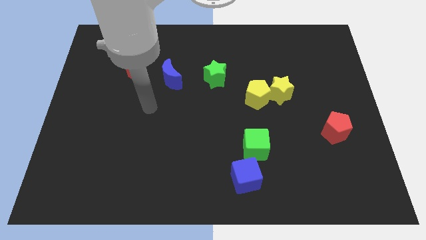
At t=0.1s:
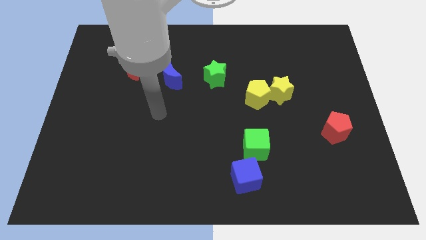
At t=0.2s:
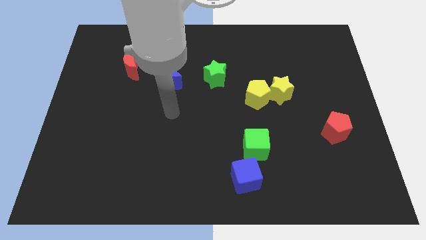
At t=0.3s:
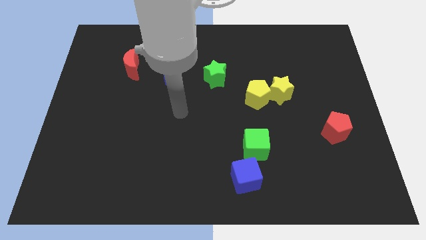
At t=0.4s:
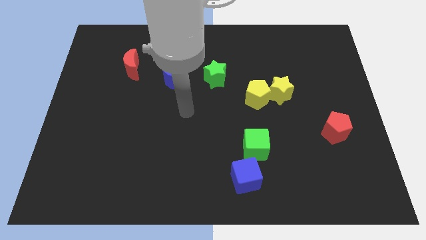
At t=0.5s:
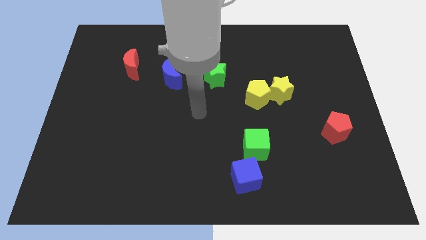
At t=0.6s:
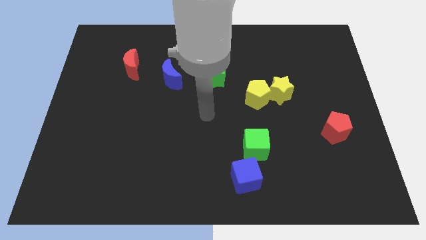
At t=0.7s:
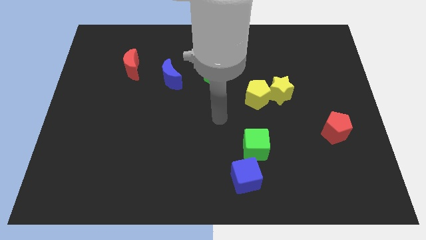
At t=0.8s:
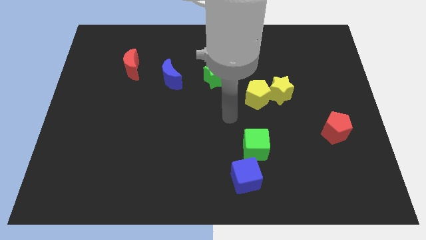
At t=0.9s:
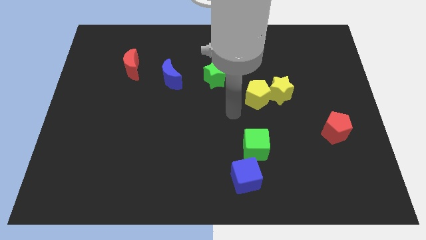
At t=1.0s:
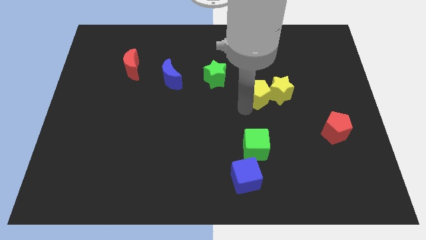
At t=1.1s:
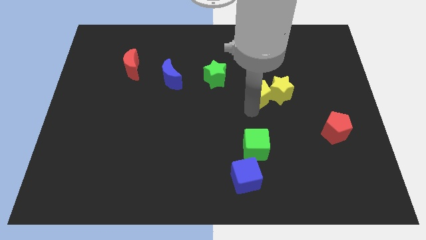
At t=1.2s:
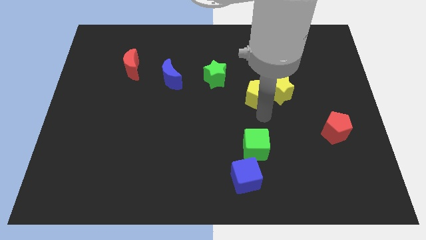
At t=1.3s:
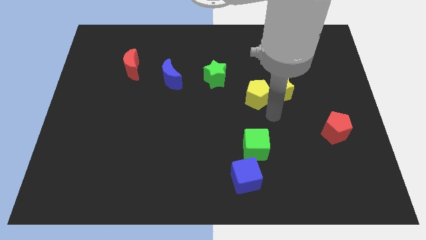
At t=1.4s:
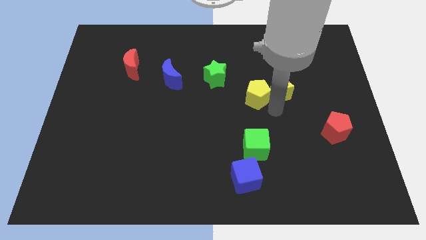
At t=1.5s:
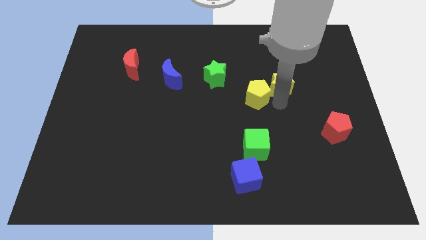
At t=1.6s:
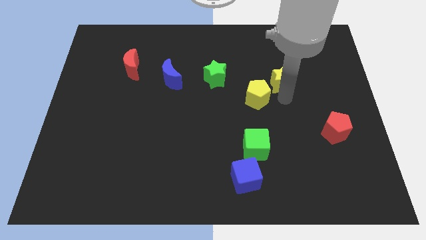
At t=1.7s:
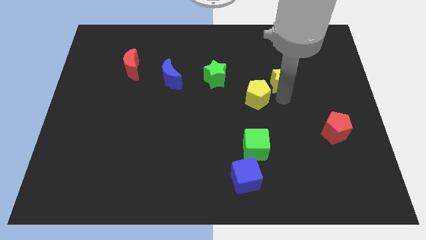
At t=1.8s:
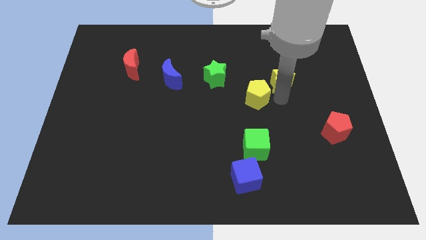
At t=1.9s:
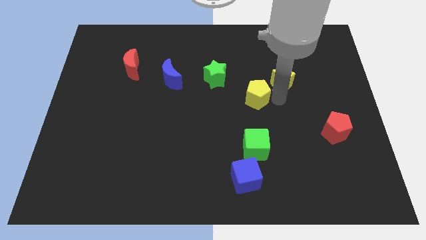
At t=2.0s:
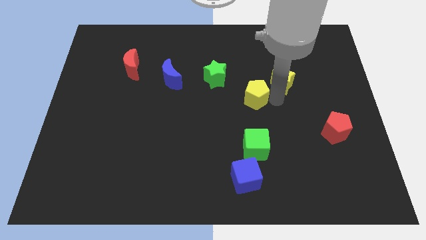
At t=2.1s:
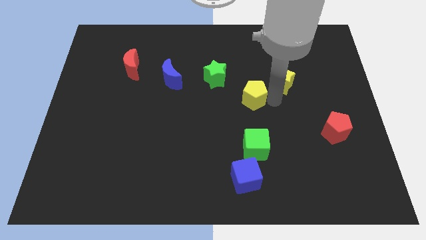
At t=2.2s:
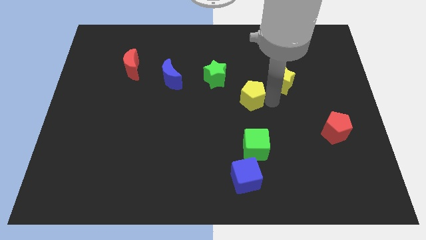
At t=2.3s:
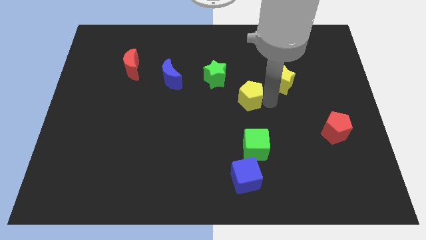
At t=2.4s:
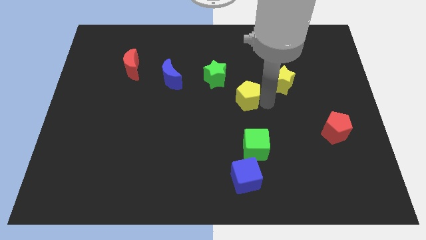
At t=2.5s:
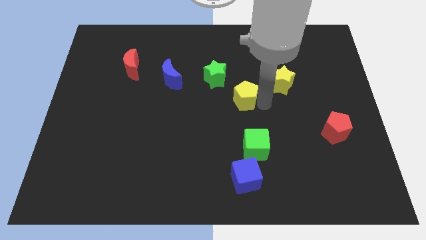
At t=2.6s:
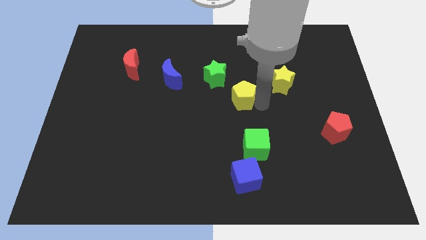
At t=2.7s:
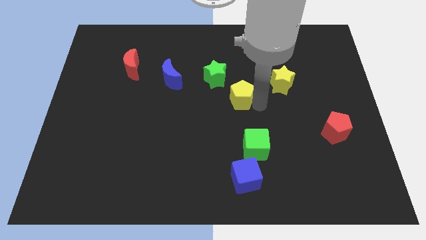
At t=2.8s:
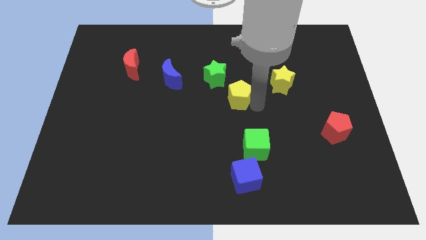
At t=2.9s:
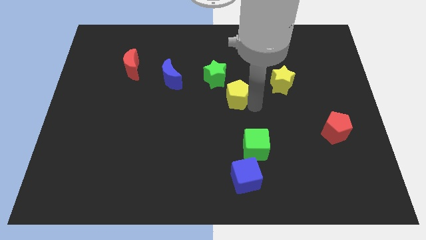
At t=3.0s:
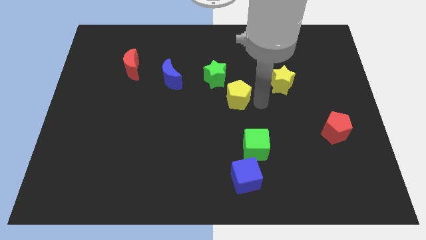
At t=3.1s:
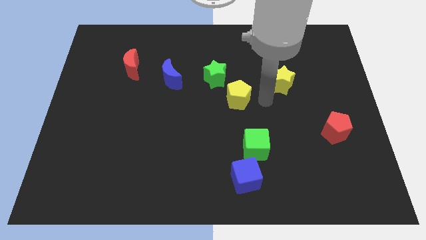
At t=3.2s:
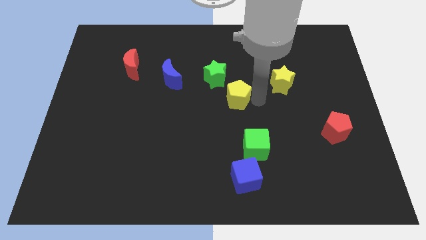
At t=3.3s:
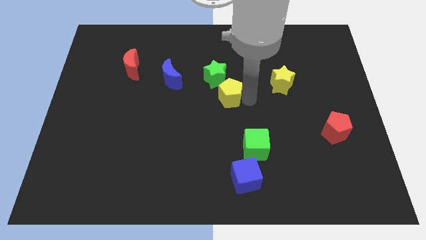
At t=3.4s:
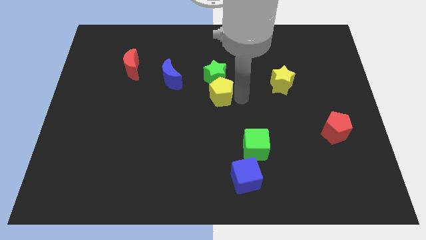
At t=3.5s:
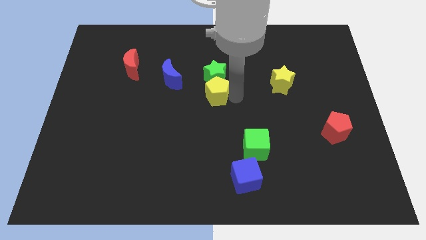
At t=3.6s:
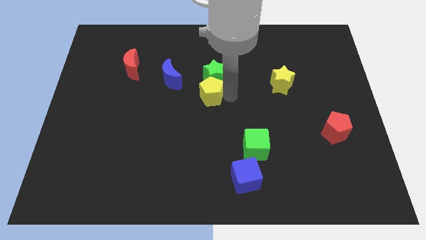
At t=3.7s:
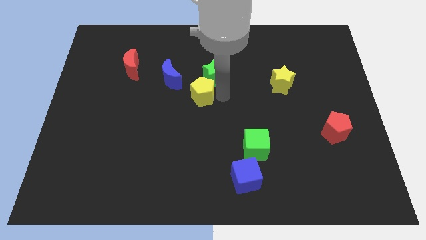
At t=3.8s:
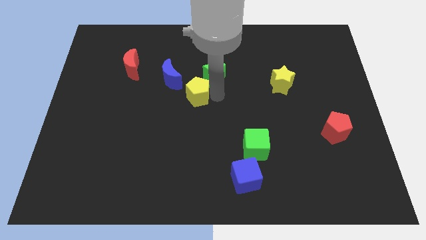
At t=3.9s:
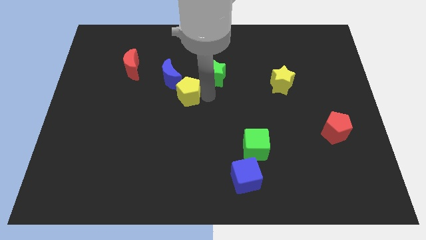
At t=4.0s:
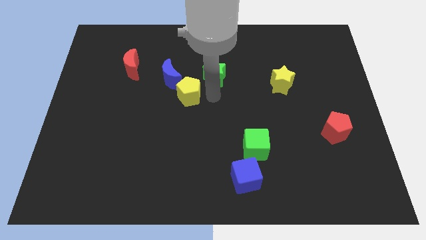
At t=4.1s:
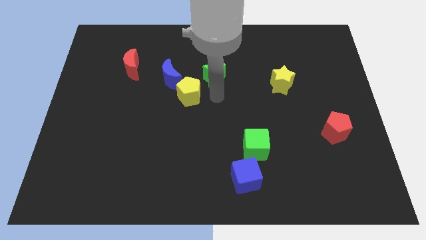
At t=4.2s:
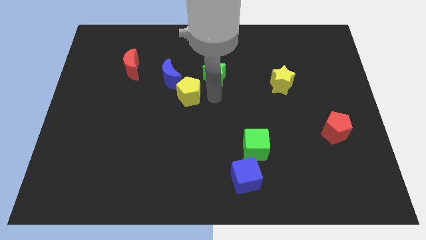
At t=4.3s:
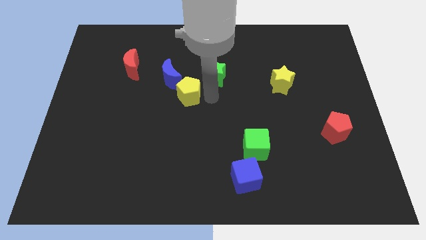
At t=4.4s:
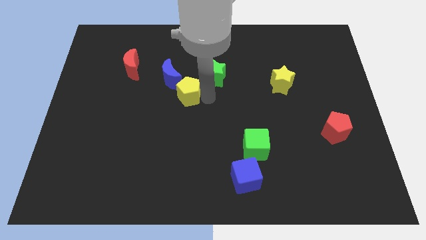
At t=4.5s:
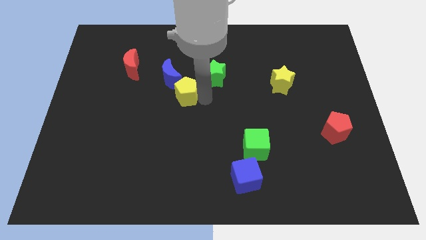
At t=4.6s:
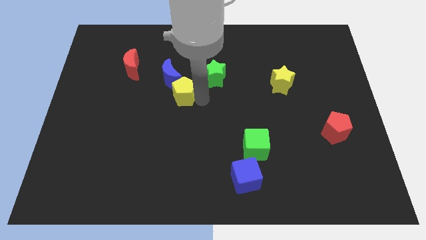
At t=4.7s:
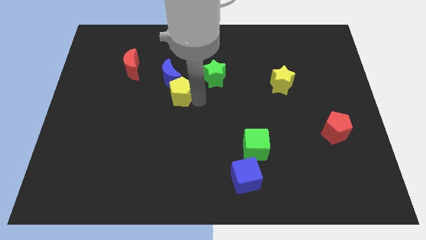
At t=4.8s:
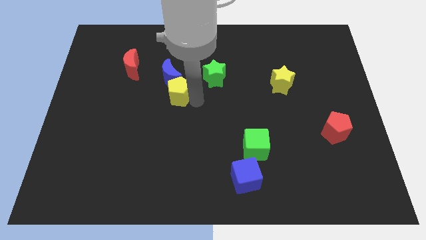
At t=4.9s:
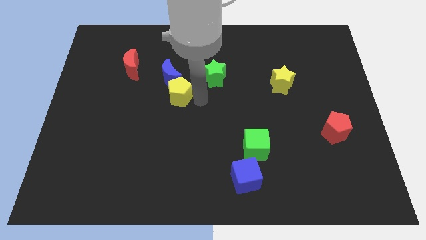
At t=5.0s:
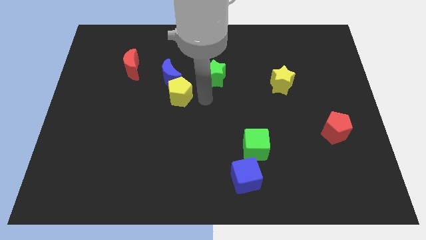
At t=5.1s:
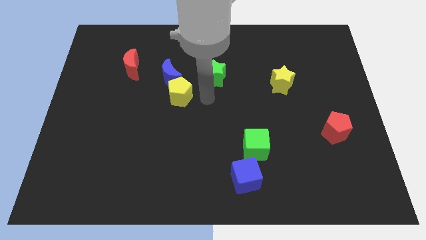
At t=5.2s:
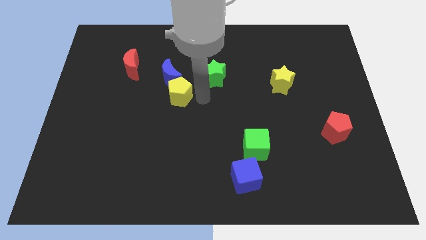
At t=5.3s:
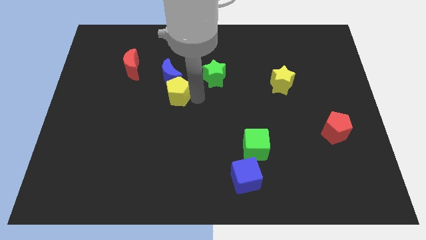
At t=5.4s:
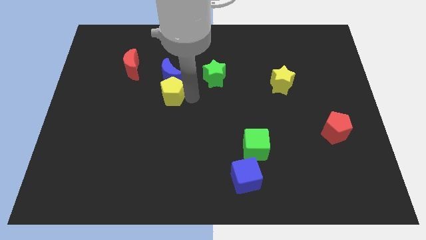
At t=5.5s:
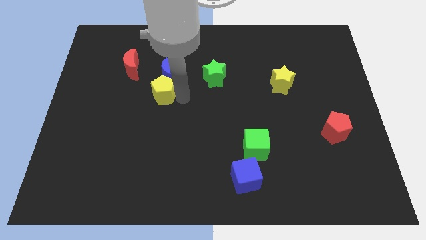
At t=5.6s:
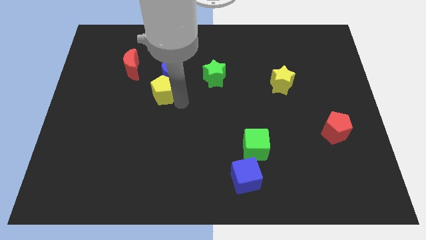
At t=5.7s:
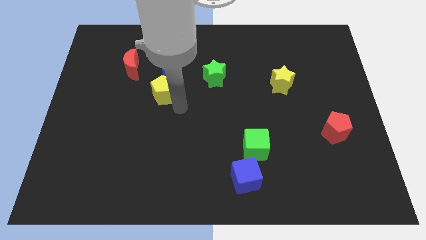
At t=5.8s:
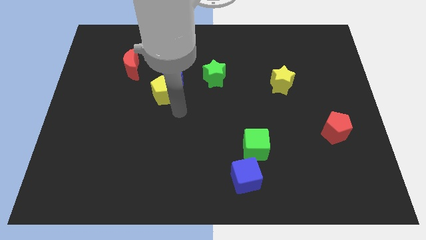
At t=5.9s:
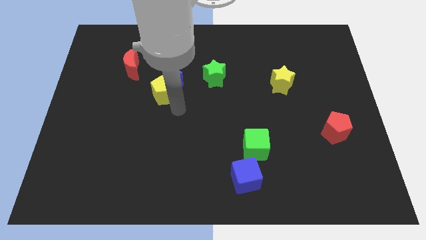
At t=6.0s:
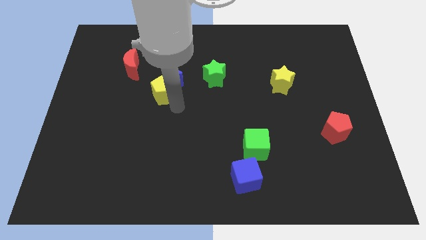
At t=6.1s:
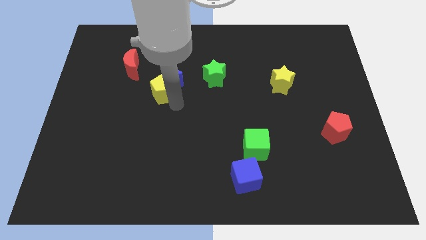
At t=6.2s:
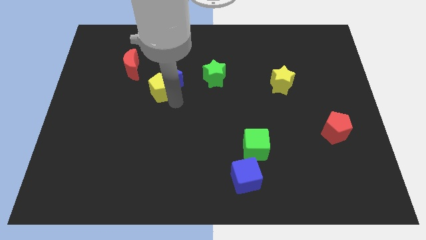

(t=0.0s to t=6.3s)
push the yellow pentagon to the left of the green star
